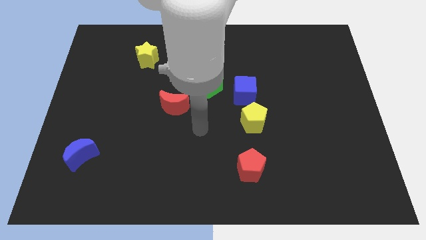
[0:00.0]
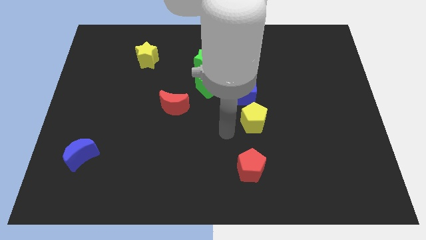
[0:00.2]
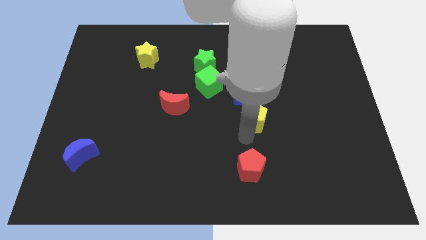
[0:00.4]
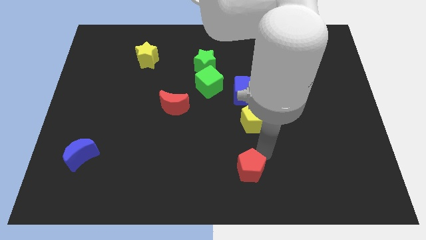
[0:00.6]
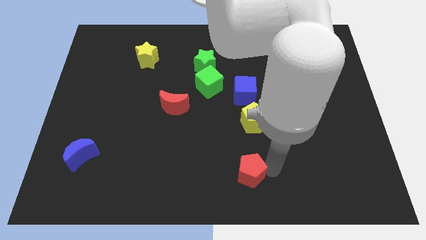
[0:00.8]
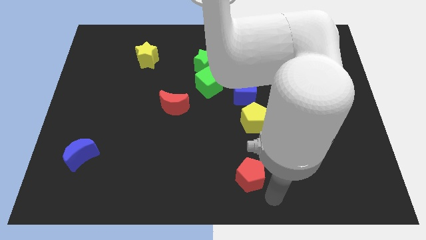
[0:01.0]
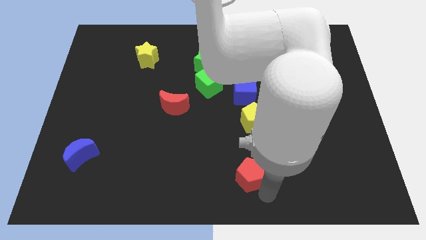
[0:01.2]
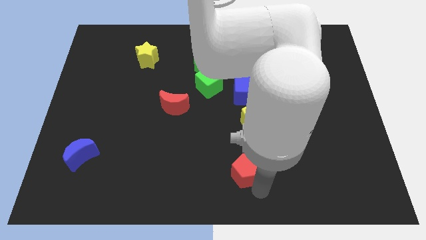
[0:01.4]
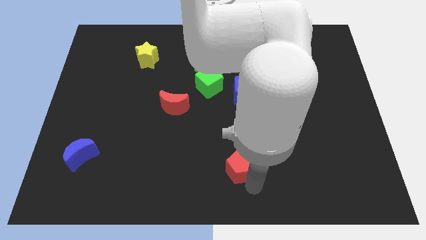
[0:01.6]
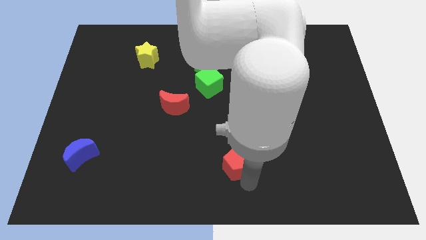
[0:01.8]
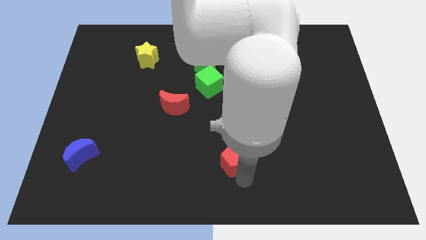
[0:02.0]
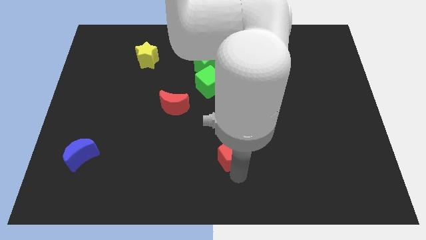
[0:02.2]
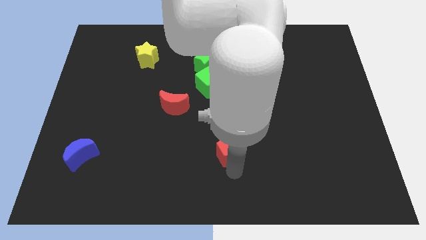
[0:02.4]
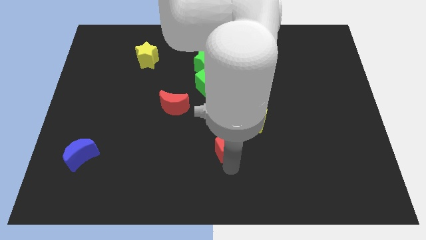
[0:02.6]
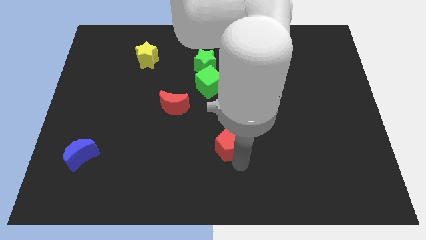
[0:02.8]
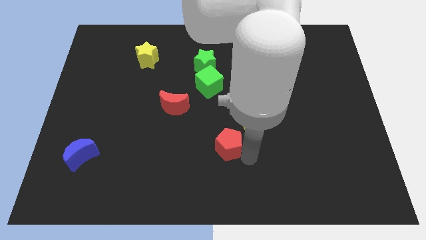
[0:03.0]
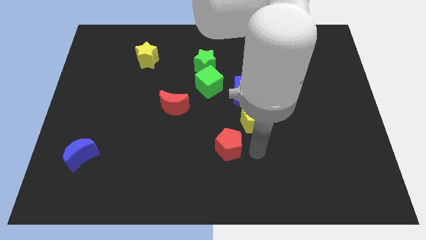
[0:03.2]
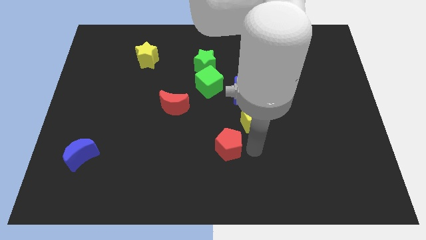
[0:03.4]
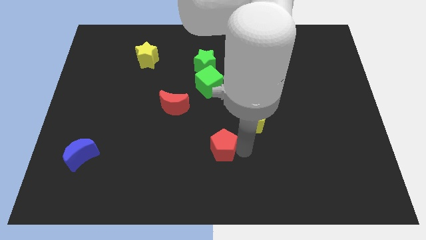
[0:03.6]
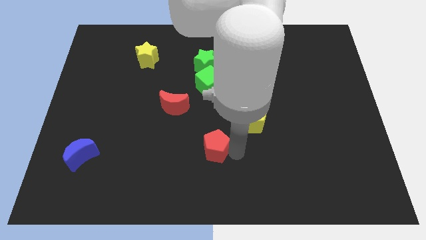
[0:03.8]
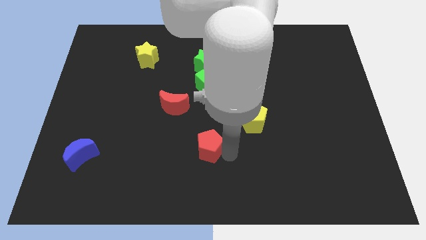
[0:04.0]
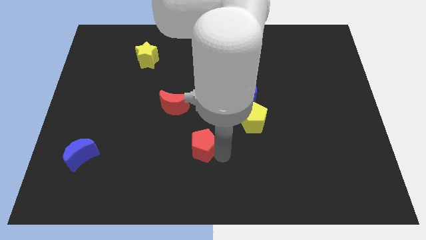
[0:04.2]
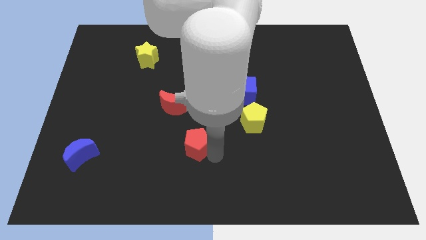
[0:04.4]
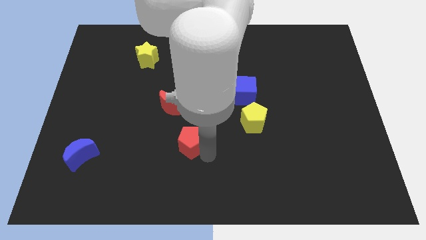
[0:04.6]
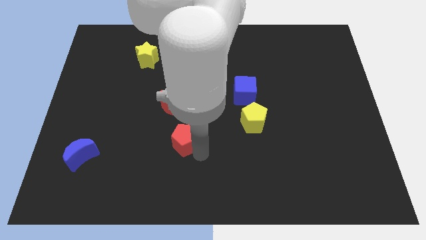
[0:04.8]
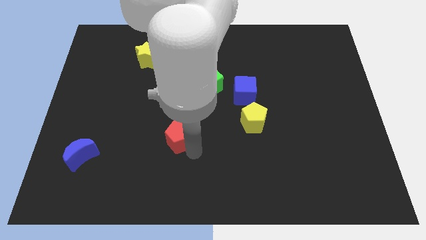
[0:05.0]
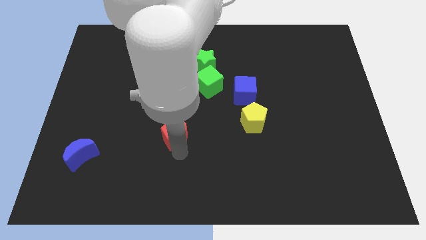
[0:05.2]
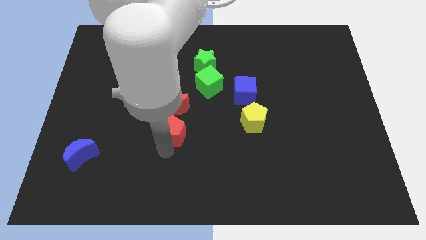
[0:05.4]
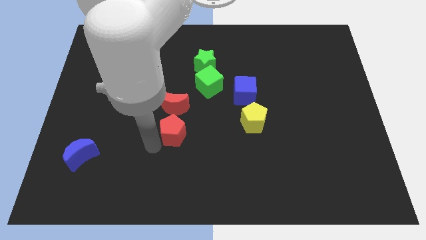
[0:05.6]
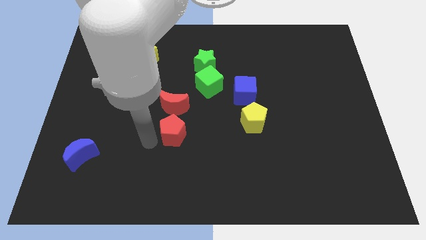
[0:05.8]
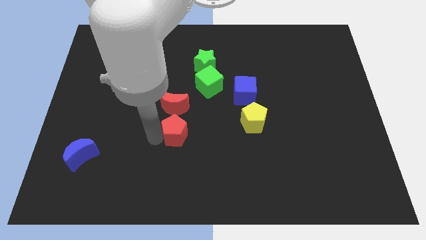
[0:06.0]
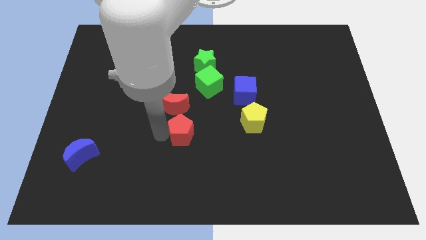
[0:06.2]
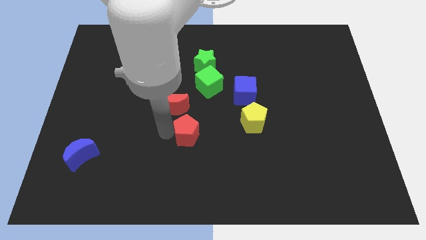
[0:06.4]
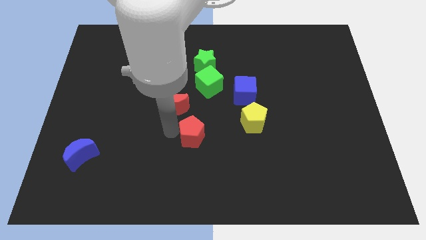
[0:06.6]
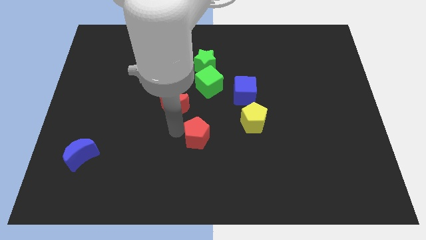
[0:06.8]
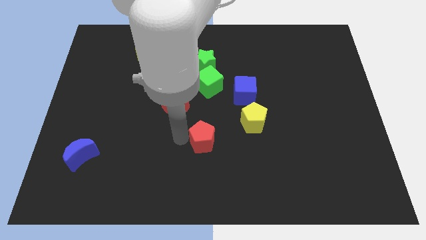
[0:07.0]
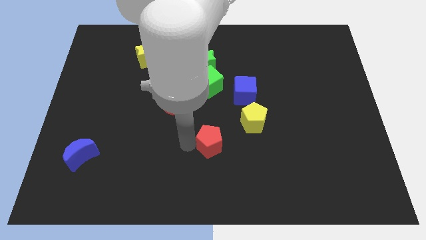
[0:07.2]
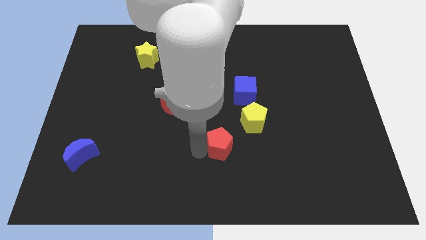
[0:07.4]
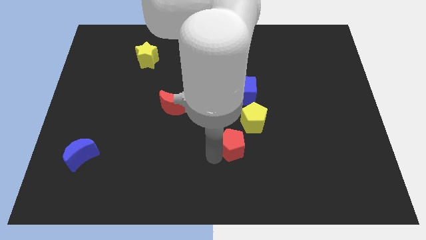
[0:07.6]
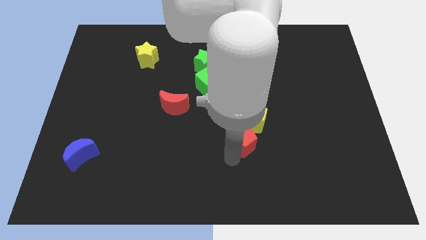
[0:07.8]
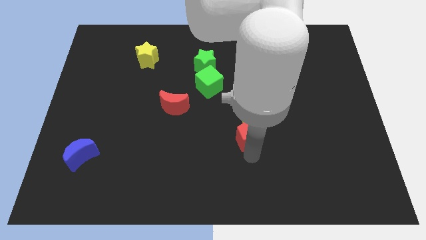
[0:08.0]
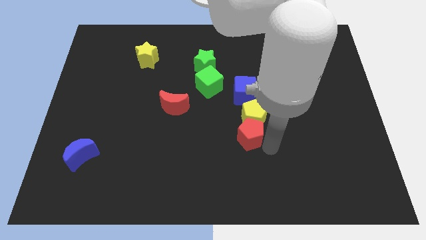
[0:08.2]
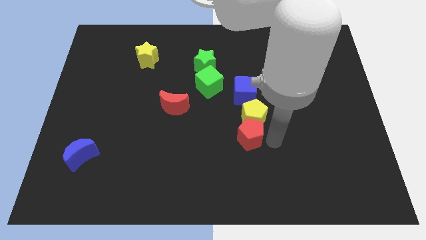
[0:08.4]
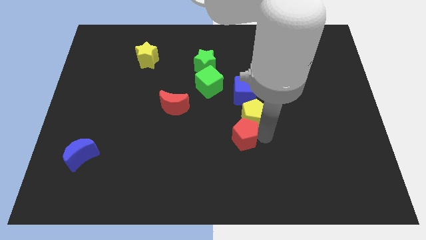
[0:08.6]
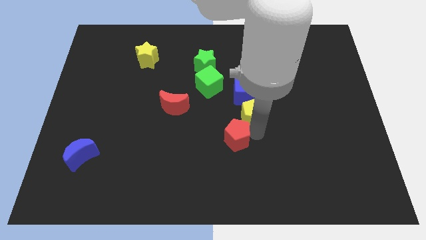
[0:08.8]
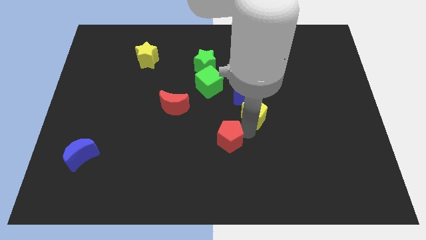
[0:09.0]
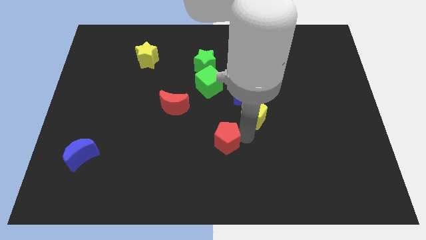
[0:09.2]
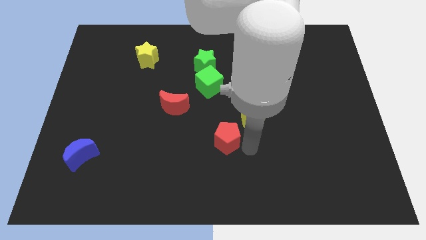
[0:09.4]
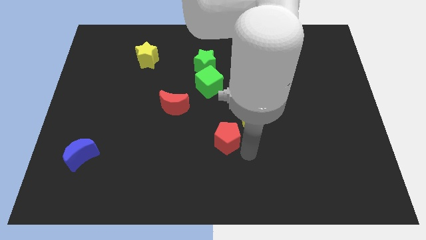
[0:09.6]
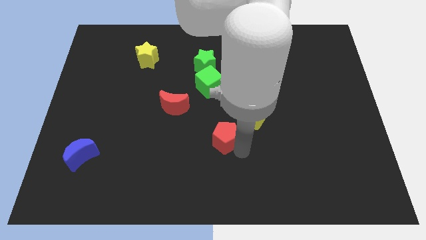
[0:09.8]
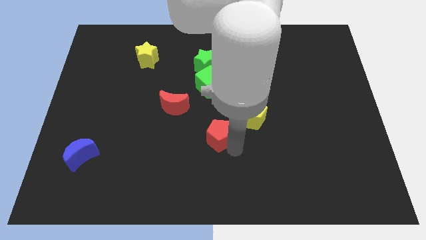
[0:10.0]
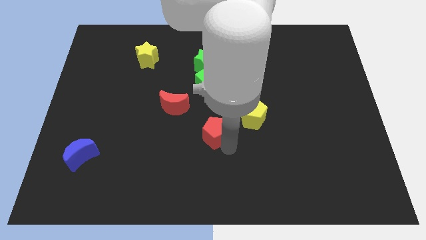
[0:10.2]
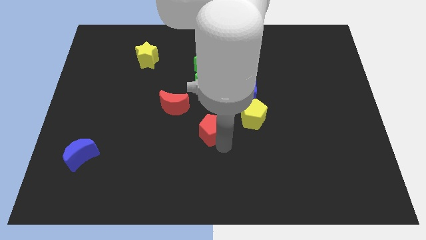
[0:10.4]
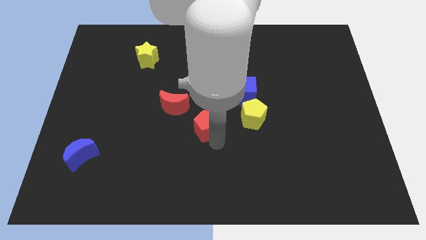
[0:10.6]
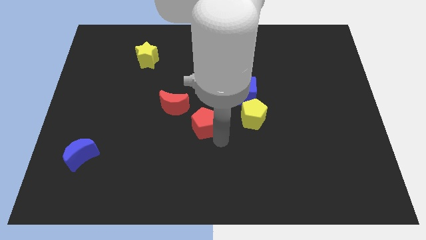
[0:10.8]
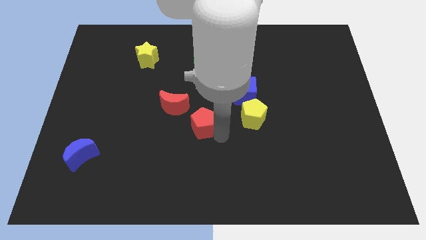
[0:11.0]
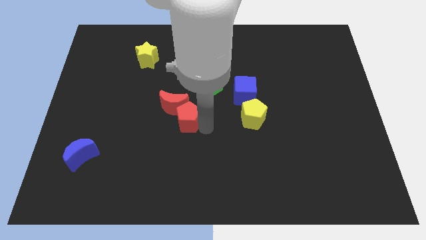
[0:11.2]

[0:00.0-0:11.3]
push the red pentagon next to the red moon

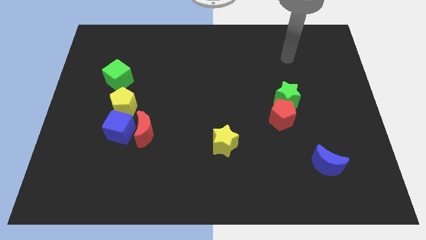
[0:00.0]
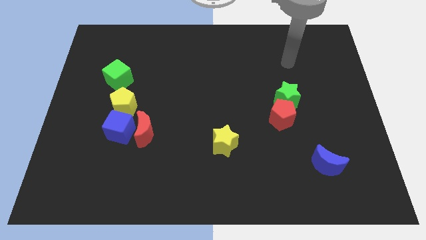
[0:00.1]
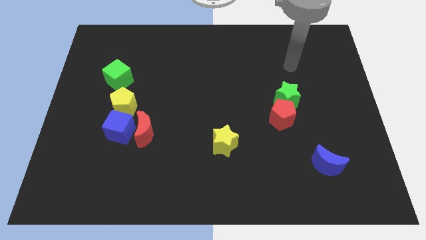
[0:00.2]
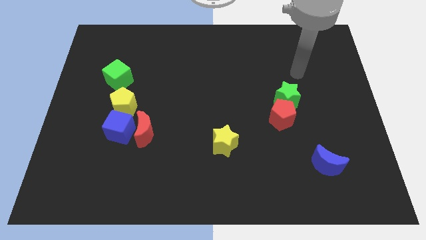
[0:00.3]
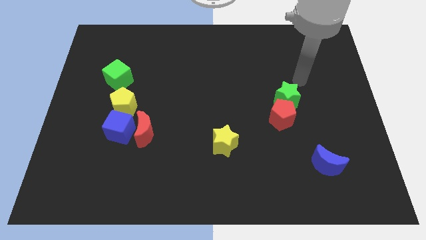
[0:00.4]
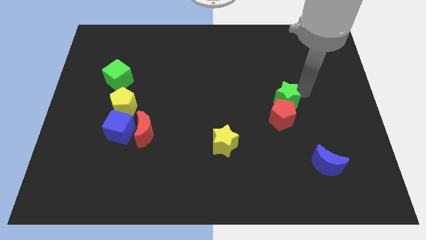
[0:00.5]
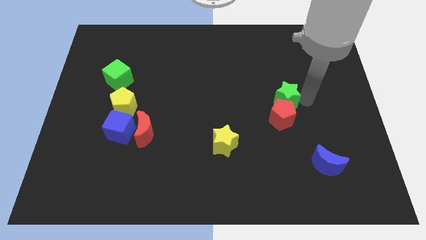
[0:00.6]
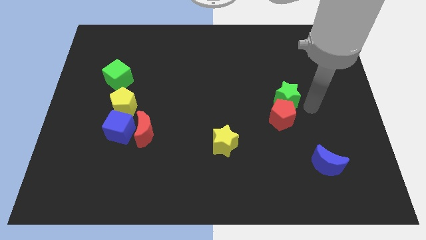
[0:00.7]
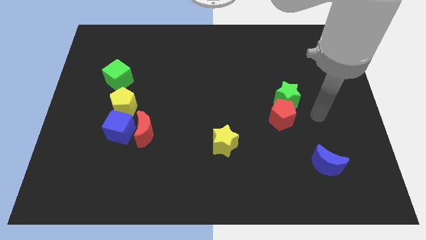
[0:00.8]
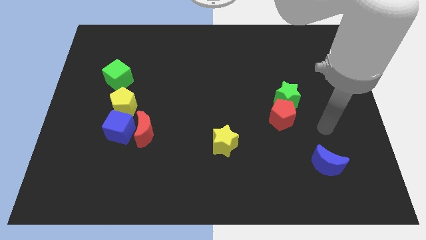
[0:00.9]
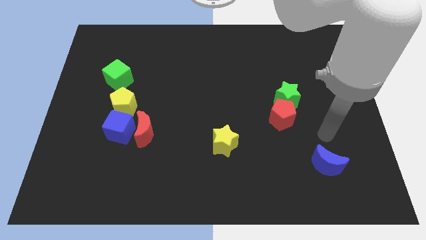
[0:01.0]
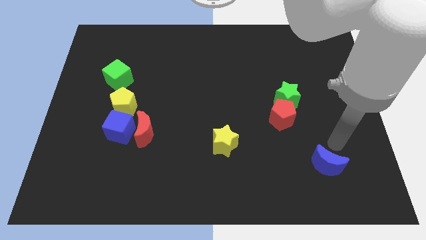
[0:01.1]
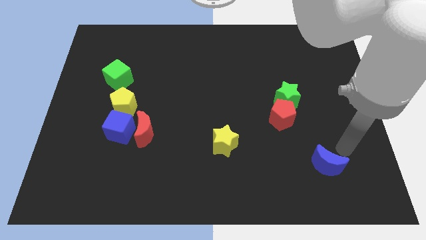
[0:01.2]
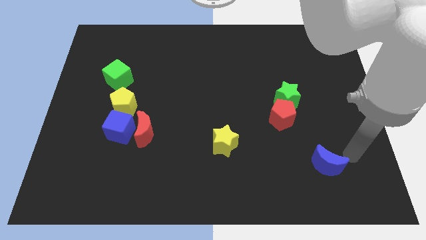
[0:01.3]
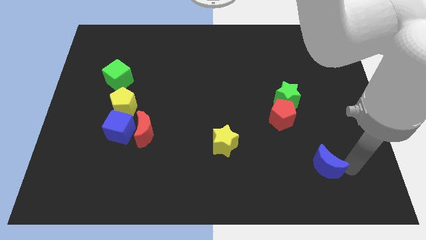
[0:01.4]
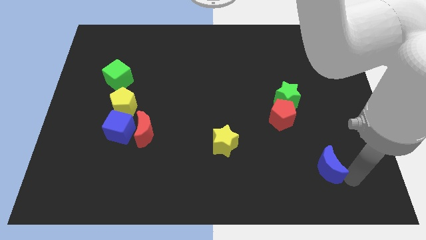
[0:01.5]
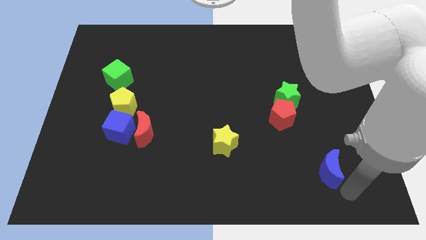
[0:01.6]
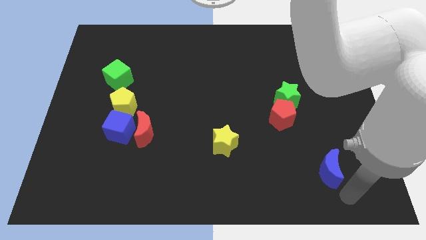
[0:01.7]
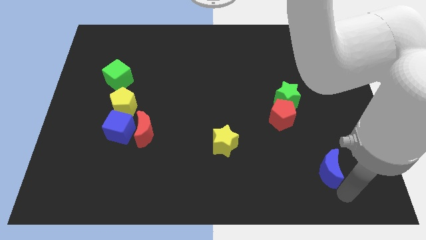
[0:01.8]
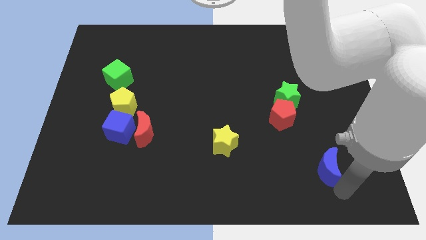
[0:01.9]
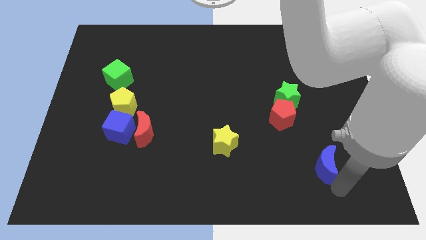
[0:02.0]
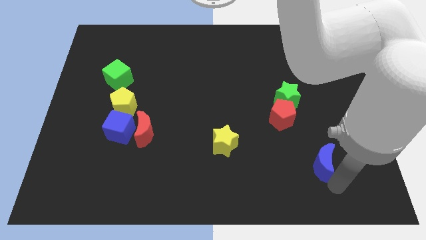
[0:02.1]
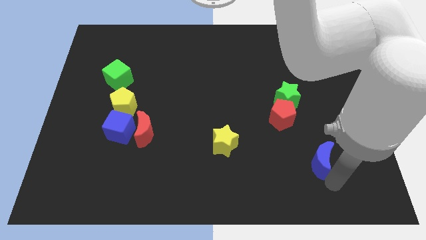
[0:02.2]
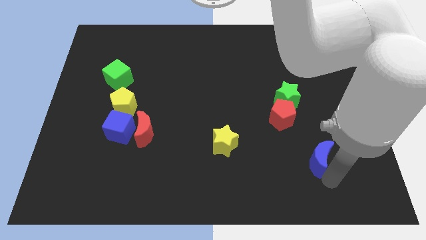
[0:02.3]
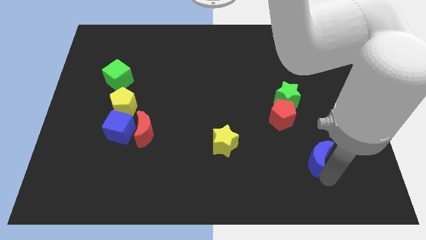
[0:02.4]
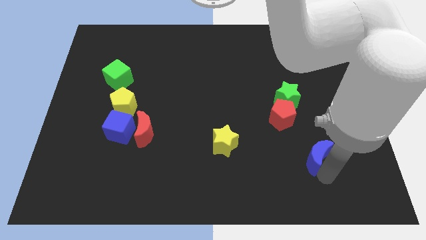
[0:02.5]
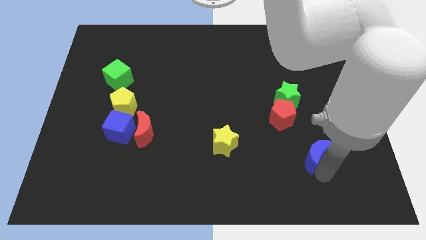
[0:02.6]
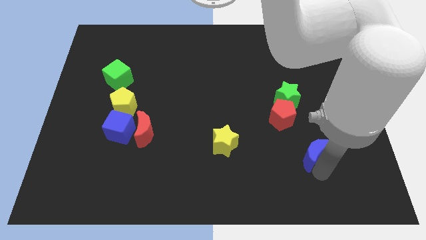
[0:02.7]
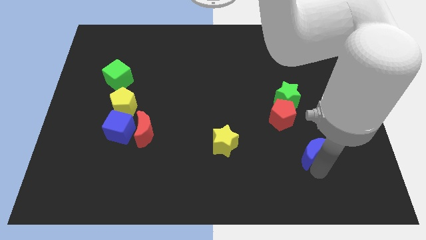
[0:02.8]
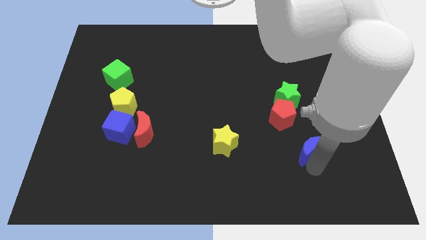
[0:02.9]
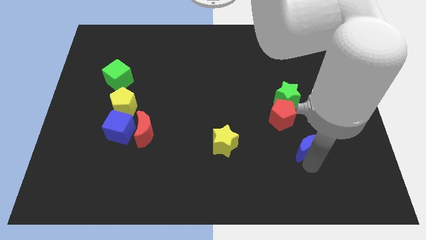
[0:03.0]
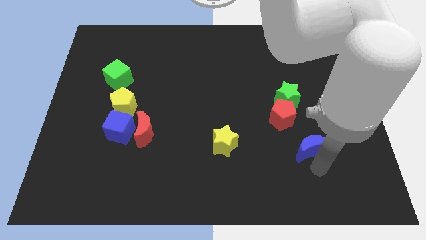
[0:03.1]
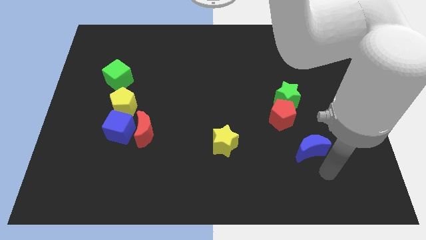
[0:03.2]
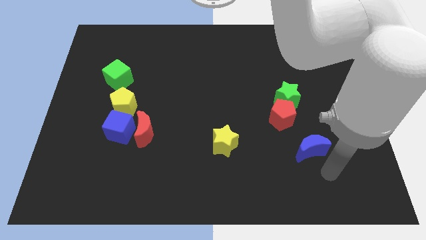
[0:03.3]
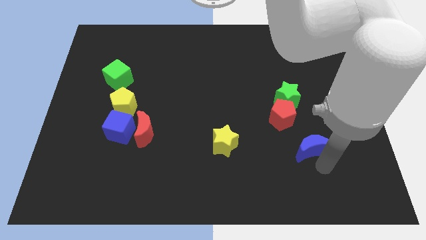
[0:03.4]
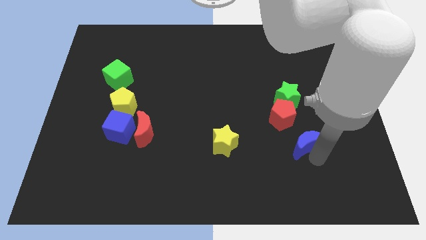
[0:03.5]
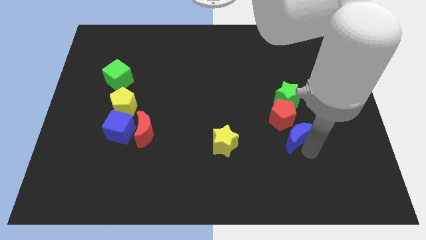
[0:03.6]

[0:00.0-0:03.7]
slide the blue moon close to the red pentagon
